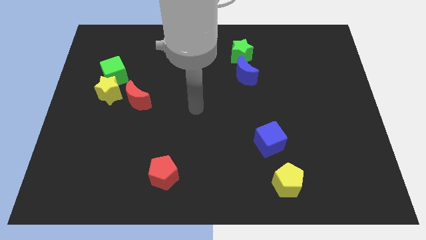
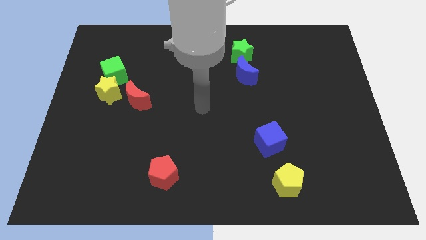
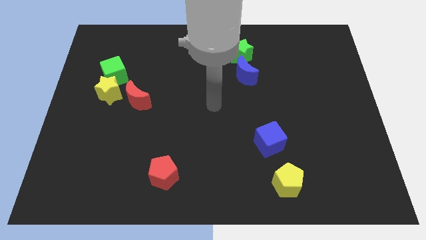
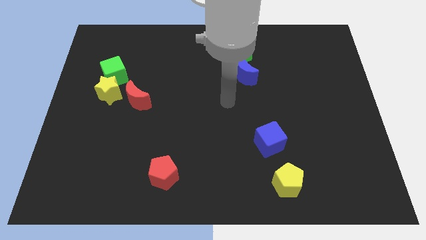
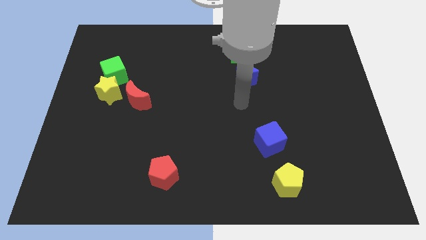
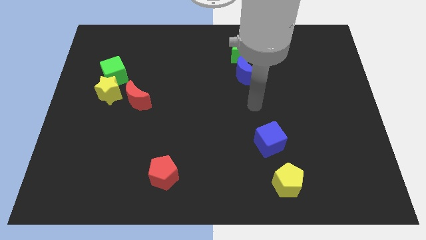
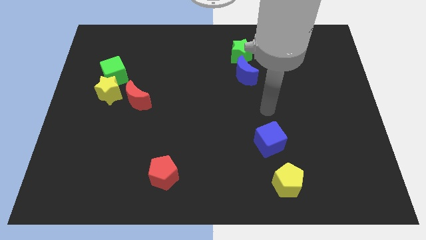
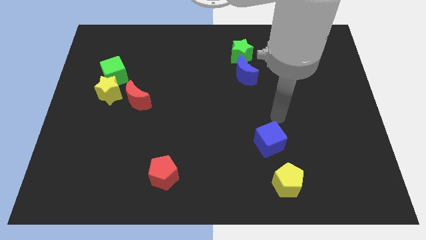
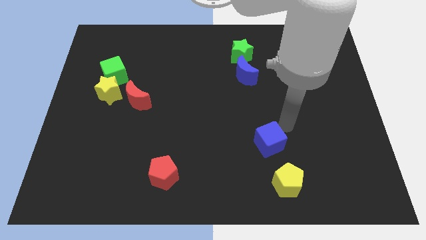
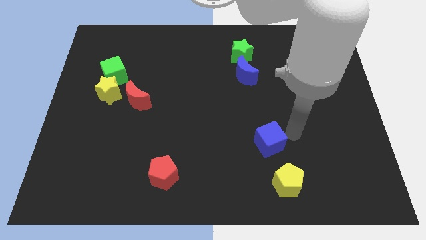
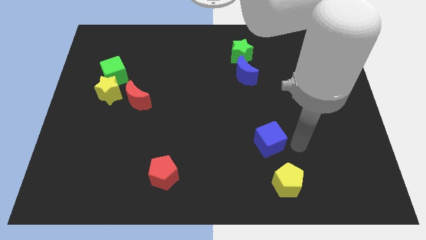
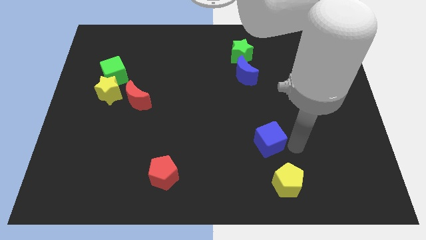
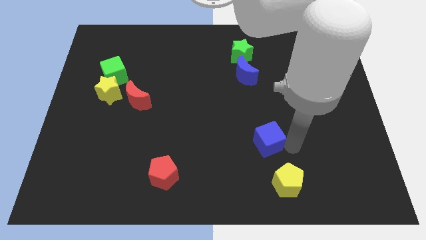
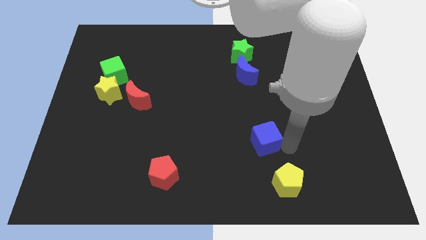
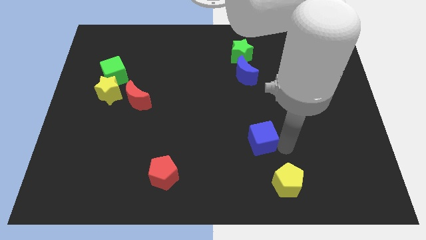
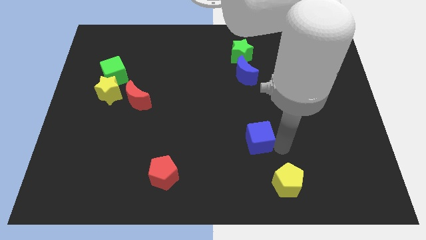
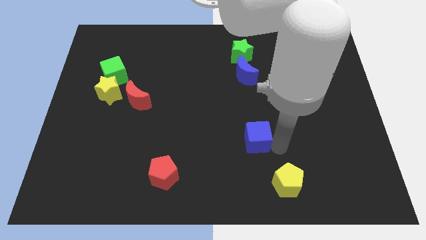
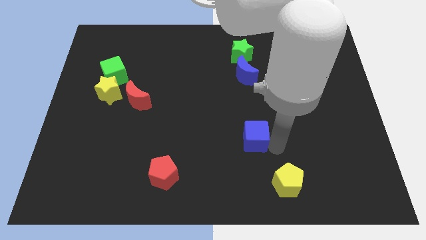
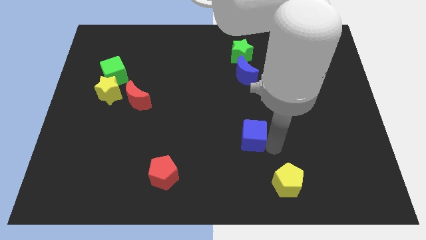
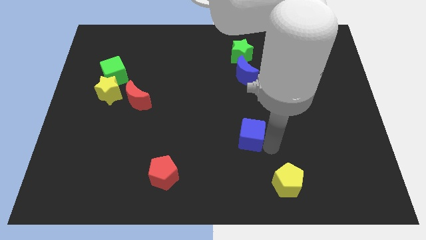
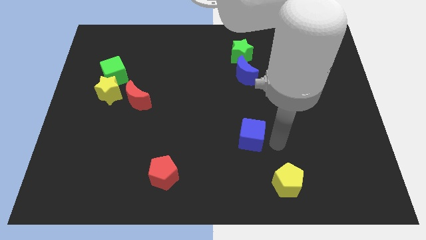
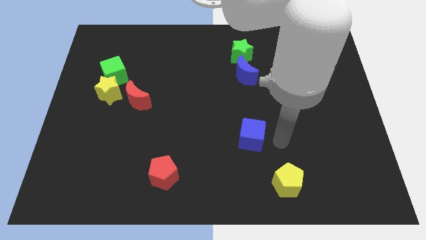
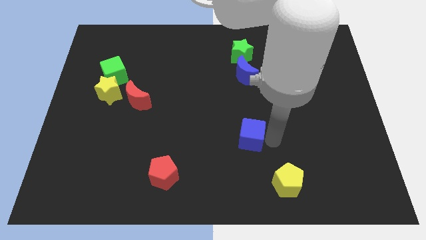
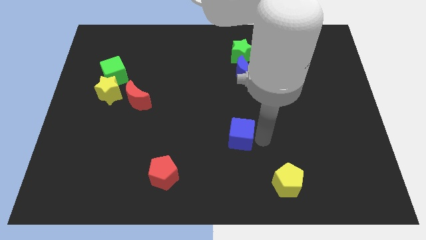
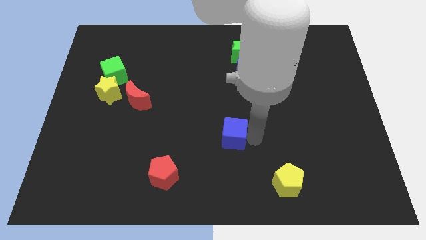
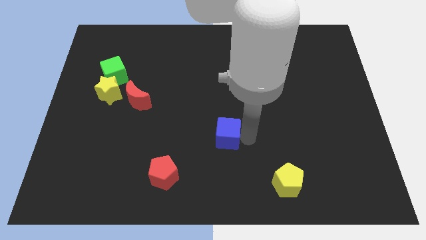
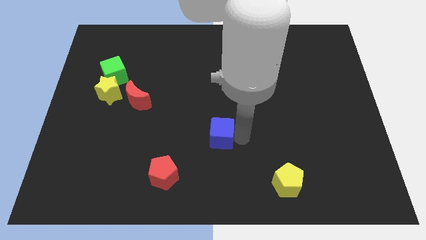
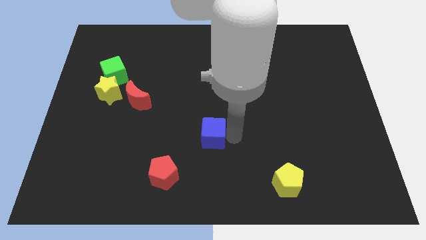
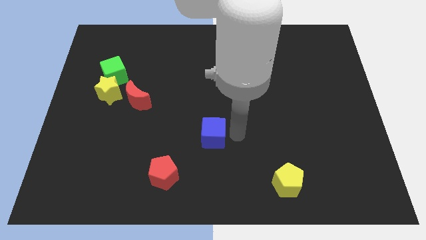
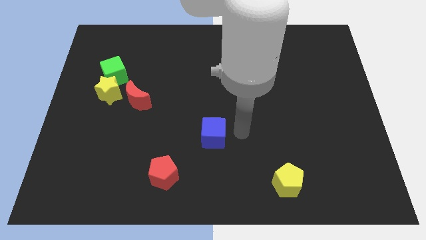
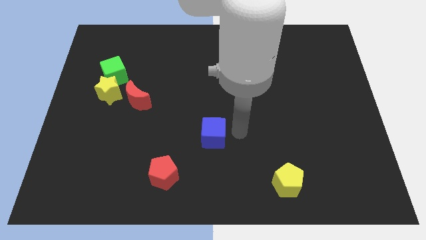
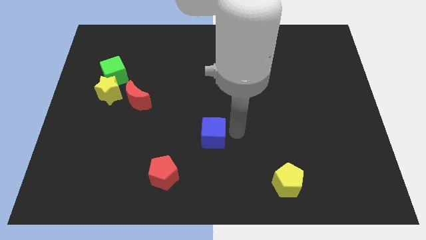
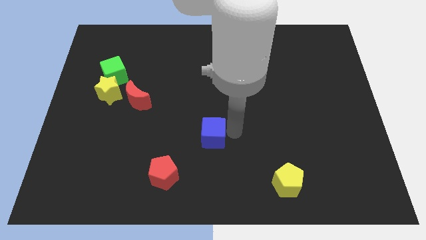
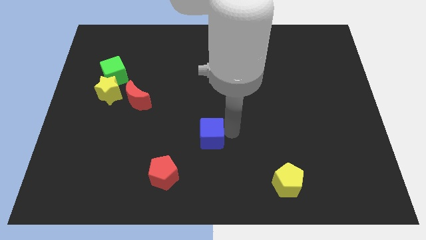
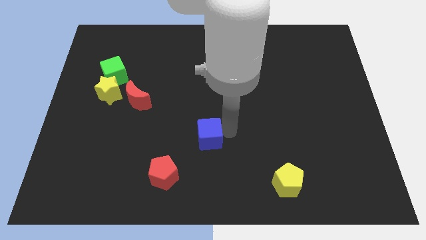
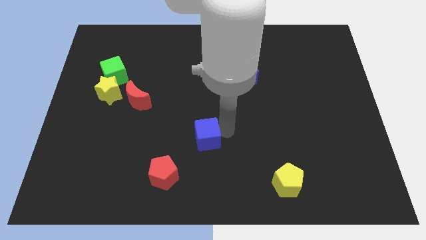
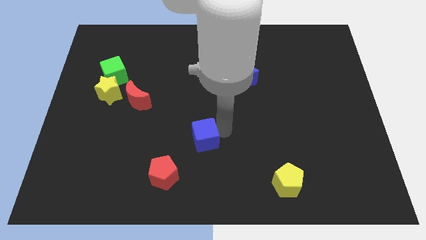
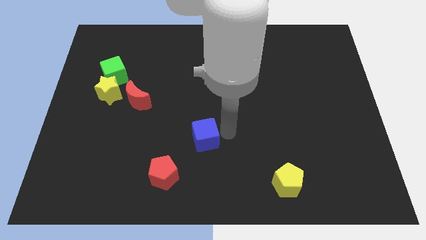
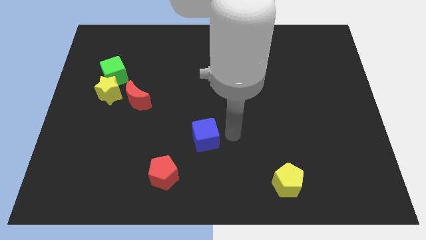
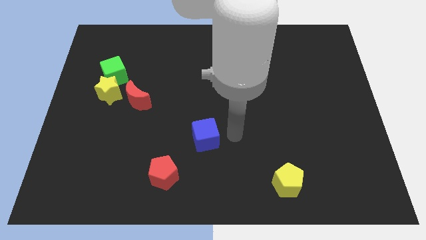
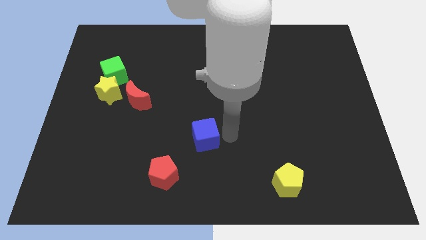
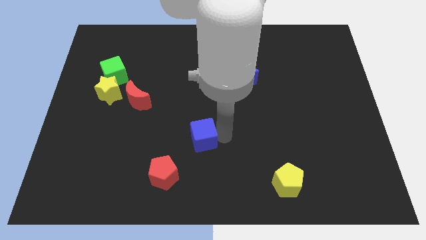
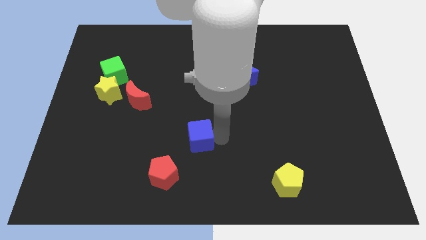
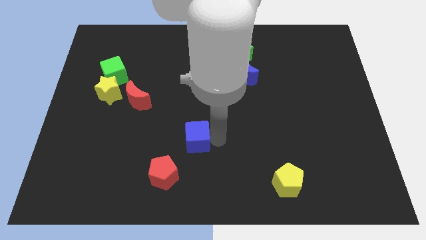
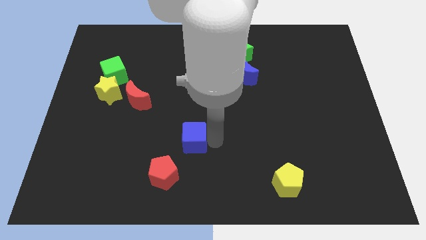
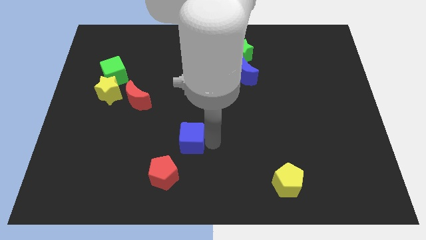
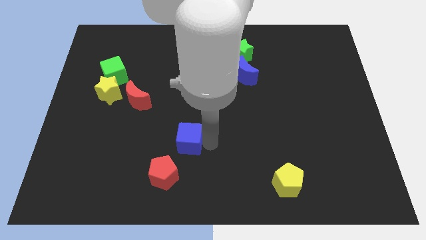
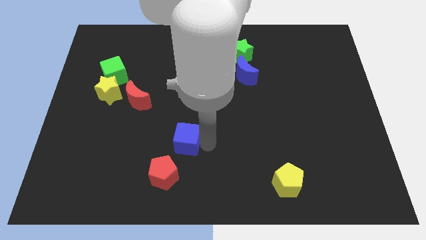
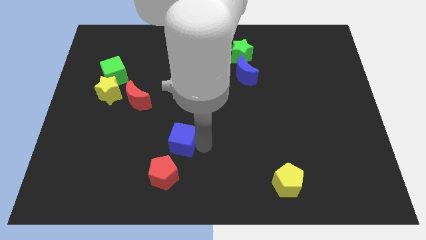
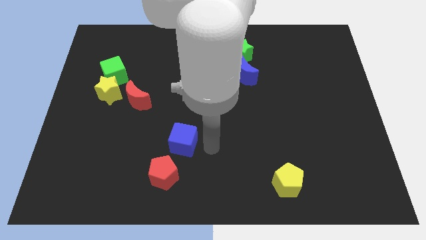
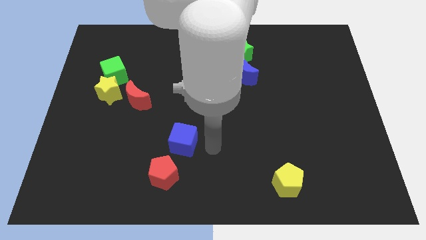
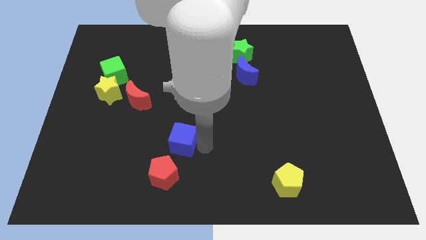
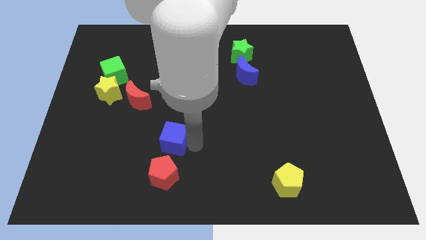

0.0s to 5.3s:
move the blue cube to the left

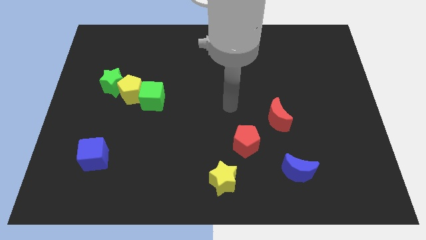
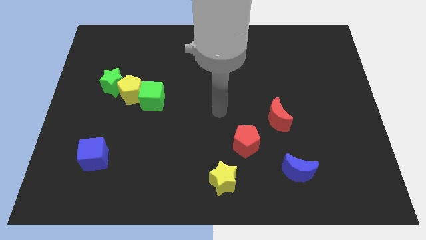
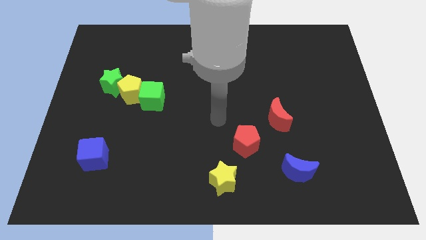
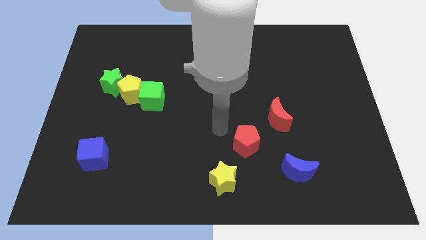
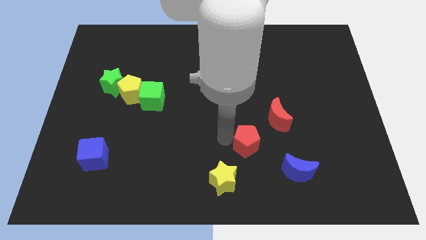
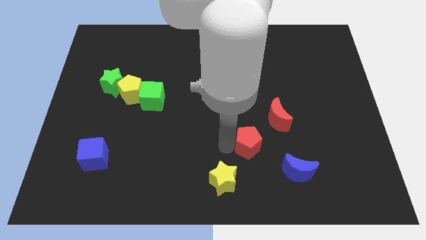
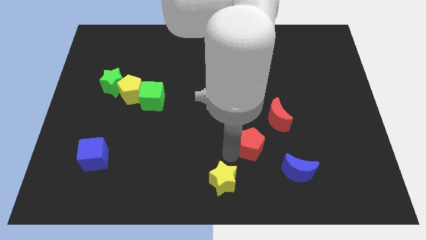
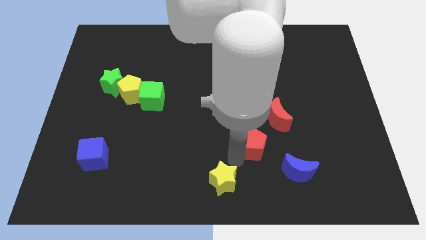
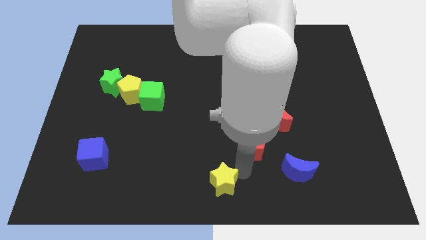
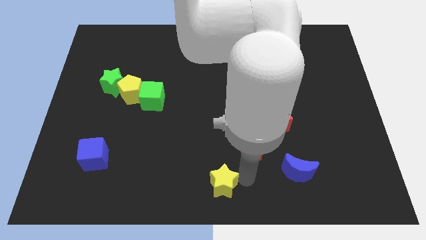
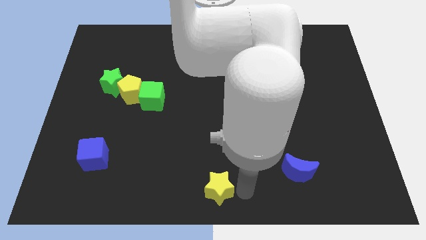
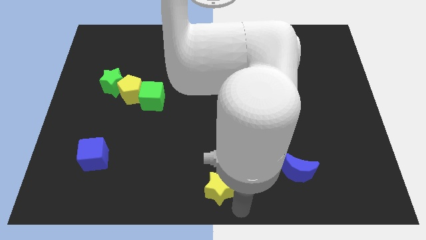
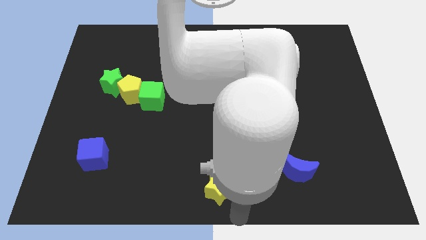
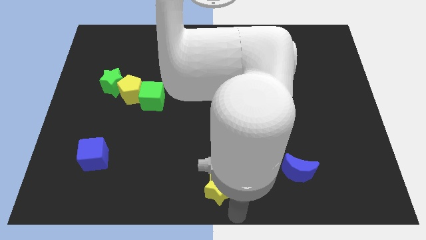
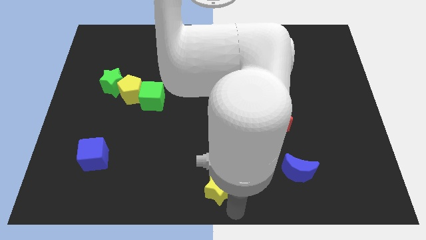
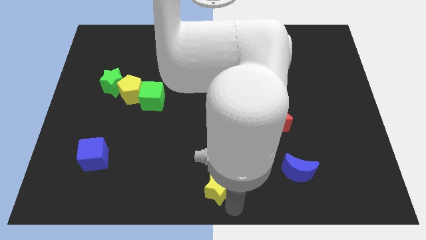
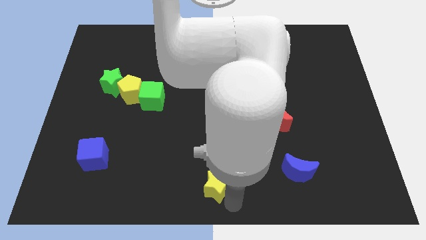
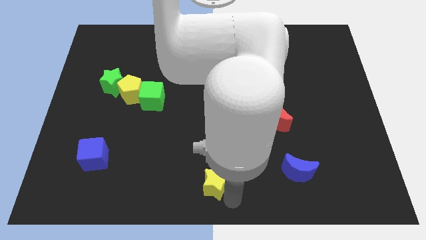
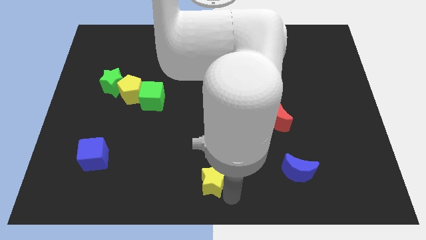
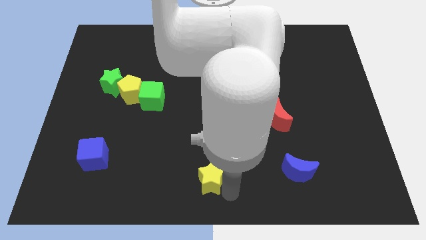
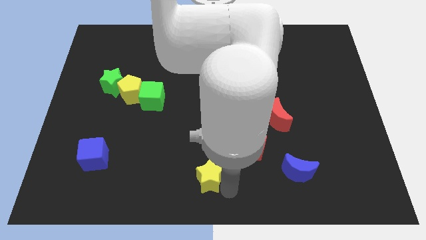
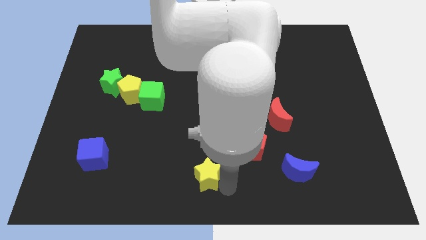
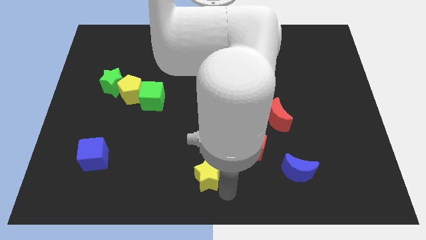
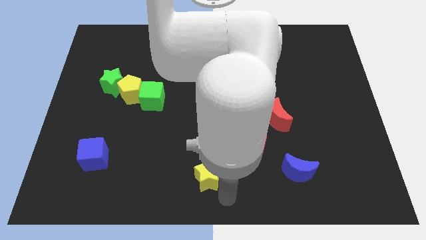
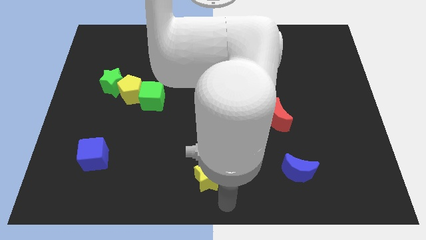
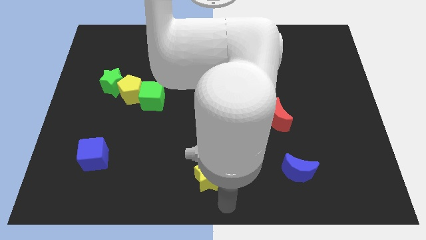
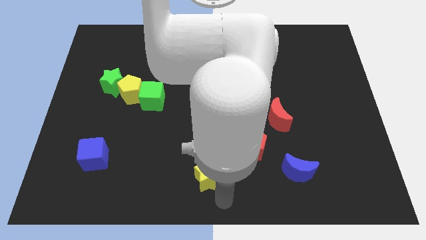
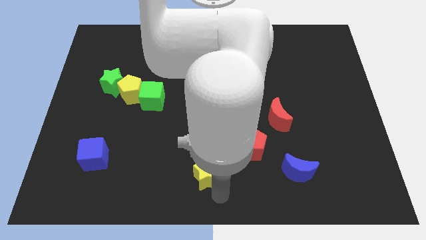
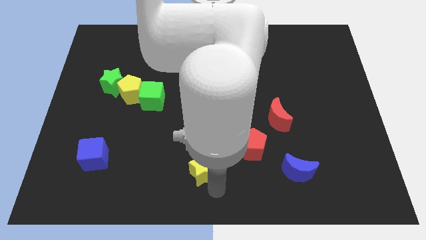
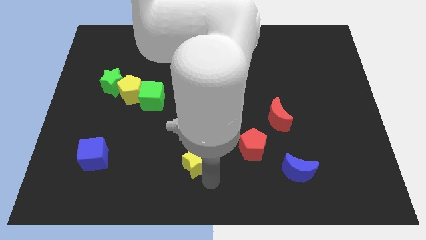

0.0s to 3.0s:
move the yellow star up and then left somewhat
